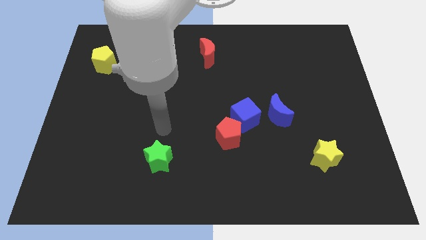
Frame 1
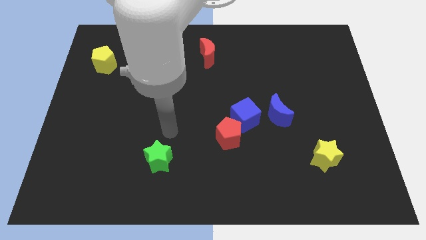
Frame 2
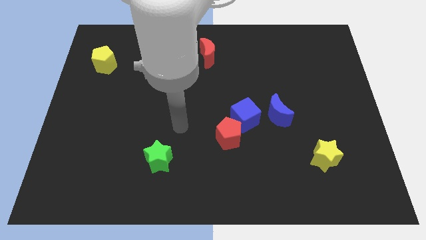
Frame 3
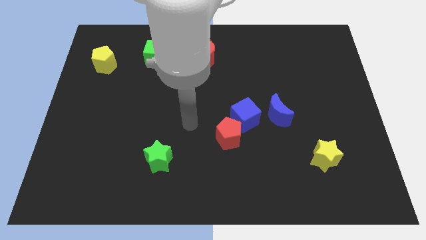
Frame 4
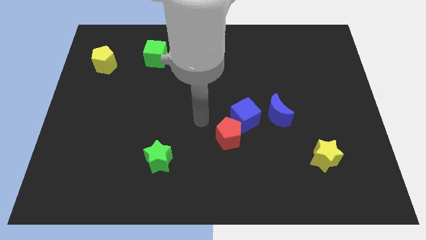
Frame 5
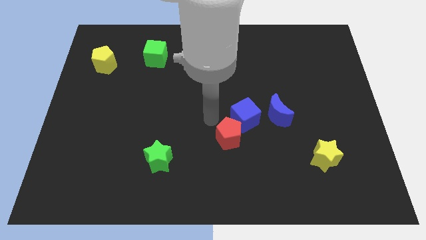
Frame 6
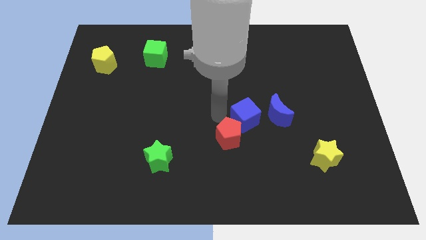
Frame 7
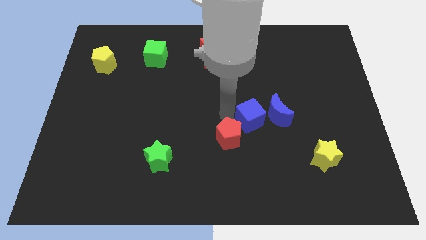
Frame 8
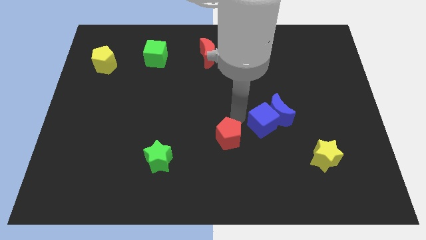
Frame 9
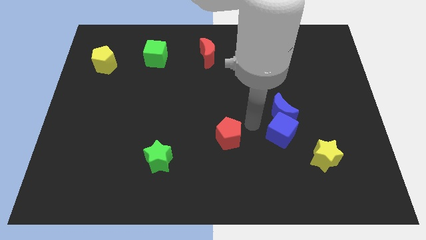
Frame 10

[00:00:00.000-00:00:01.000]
separate the red pentagon from the blue cube

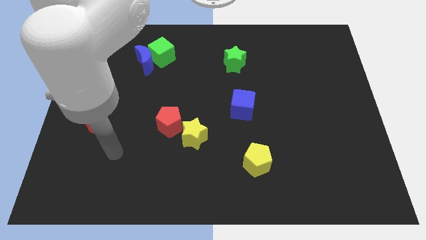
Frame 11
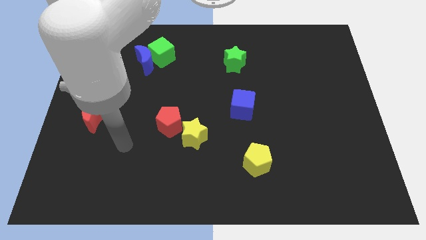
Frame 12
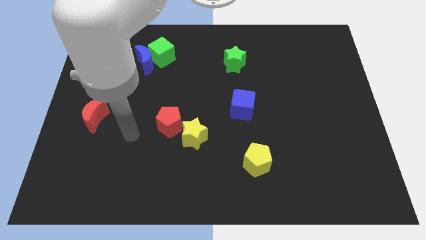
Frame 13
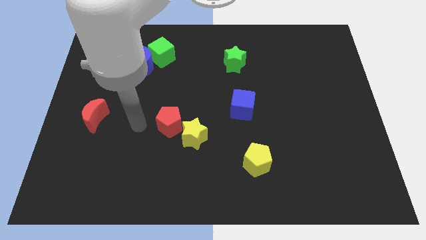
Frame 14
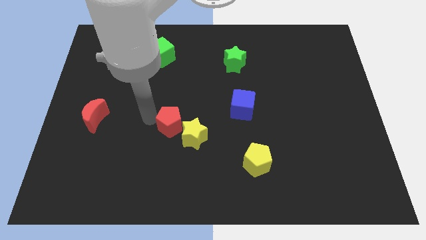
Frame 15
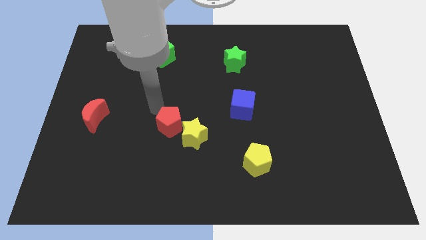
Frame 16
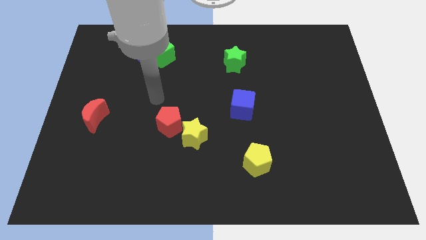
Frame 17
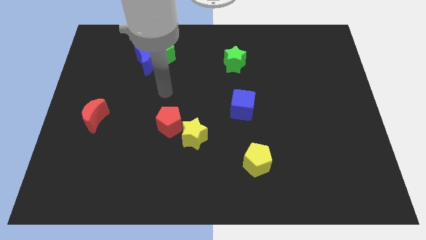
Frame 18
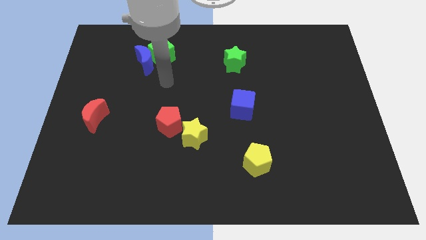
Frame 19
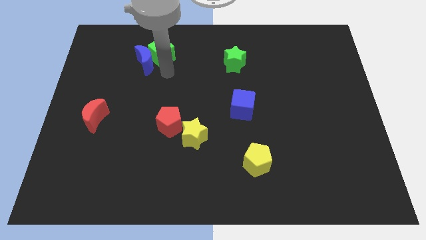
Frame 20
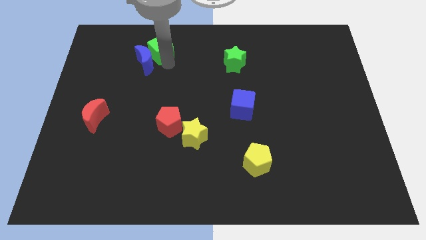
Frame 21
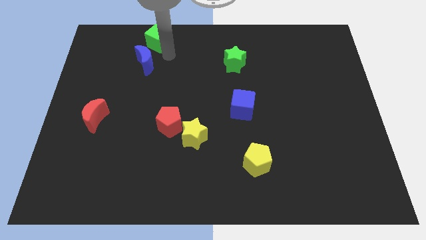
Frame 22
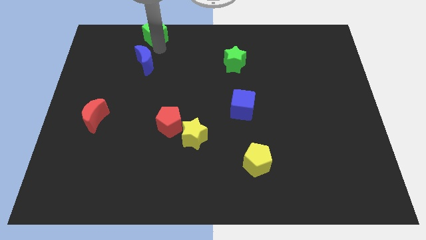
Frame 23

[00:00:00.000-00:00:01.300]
pull the blue moon apart from the green cube

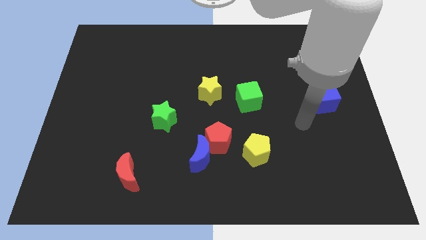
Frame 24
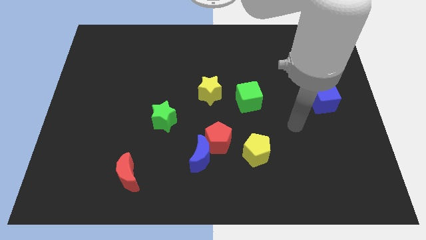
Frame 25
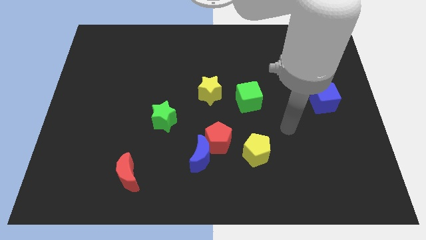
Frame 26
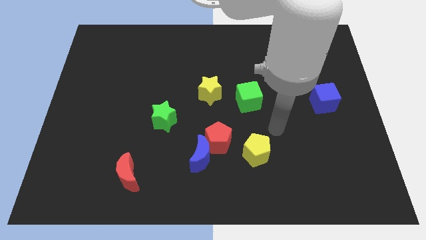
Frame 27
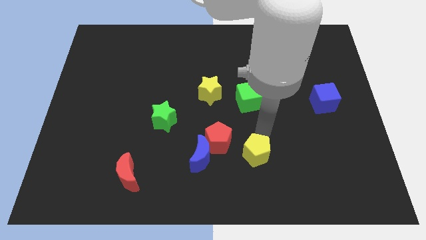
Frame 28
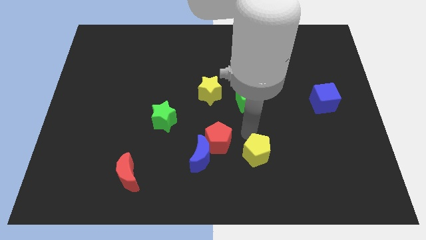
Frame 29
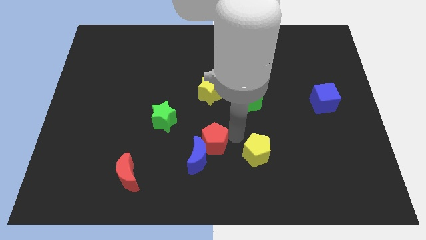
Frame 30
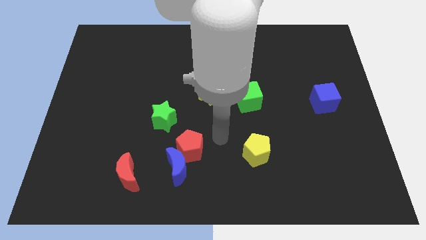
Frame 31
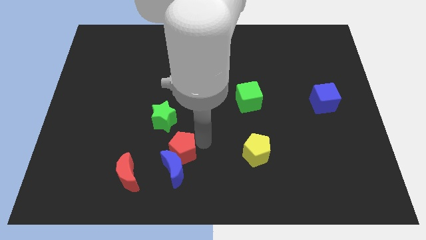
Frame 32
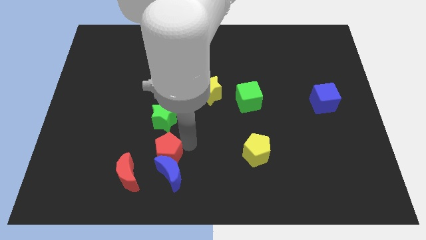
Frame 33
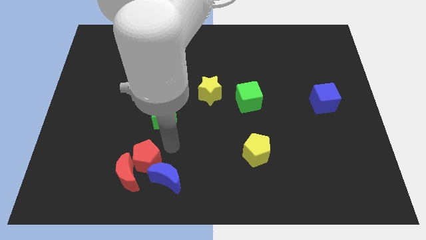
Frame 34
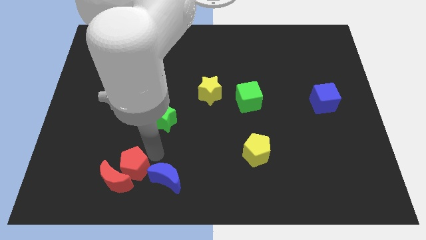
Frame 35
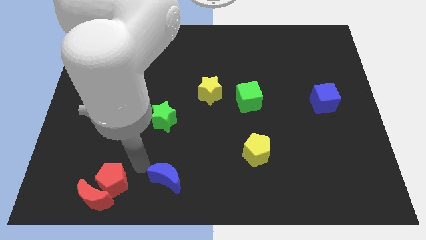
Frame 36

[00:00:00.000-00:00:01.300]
separate the blue moon from the red pentagon

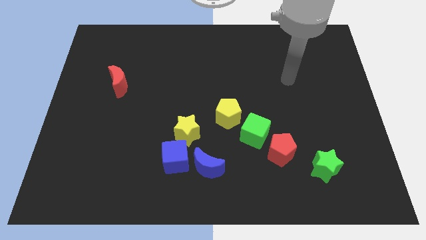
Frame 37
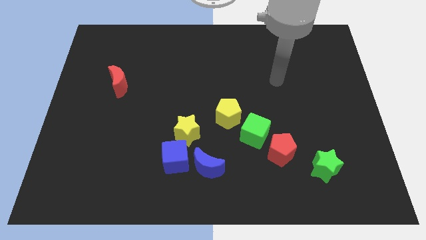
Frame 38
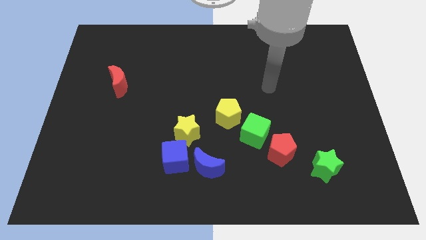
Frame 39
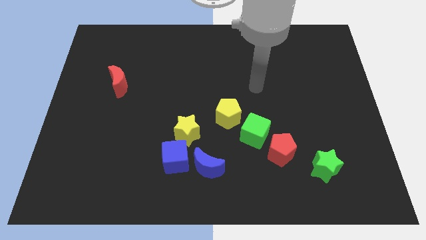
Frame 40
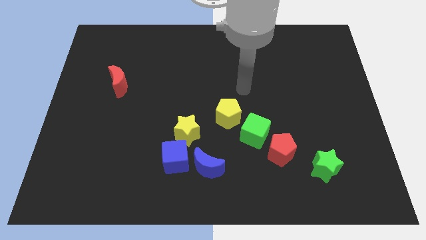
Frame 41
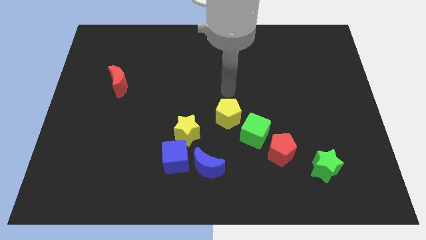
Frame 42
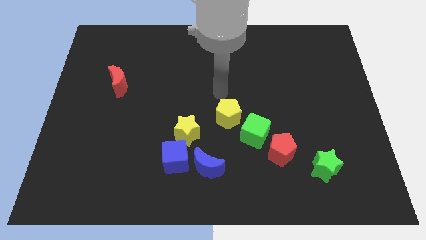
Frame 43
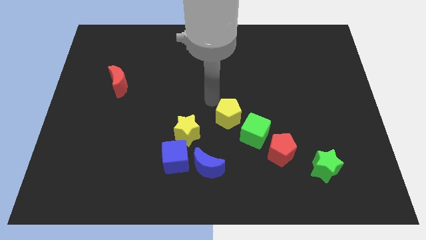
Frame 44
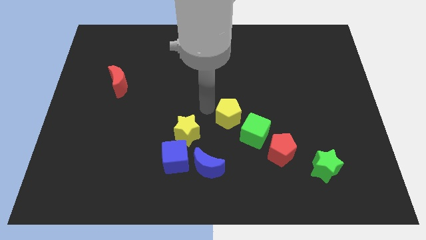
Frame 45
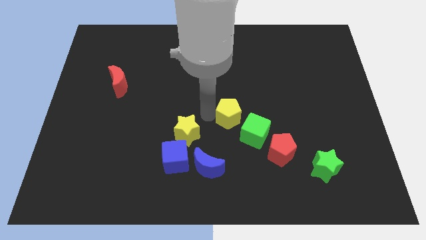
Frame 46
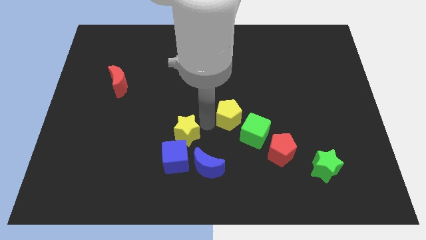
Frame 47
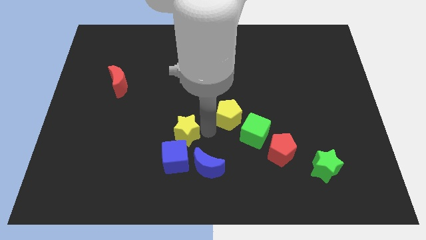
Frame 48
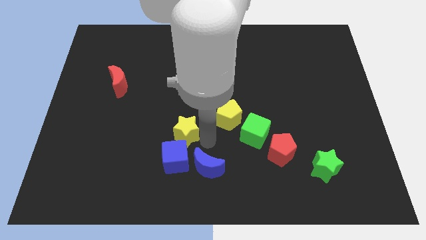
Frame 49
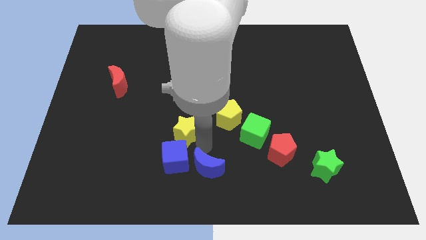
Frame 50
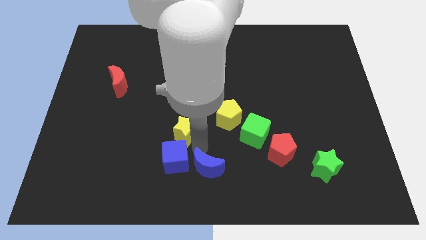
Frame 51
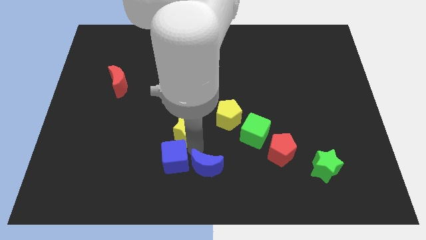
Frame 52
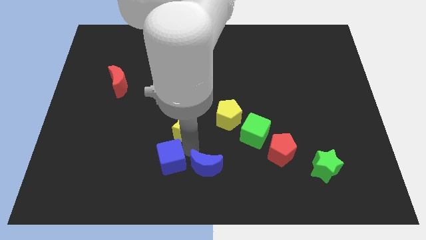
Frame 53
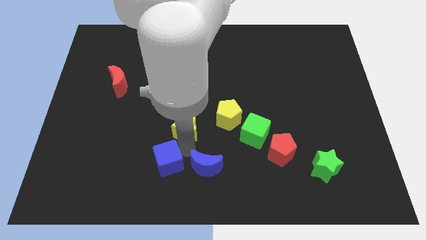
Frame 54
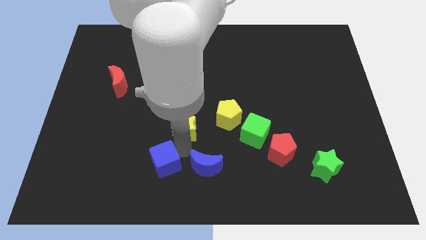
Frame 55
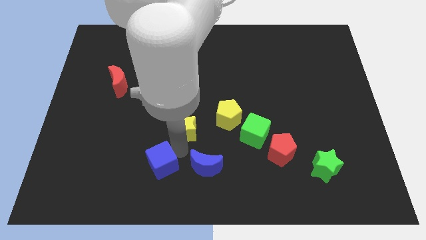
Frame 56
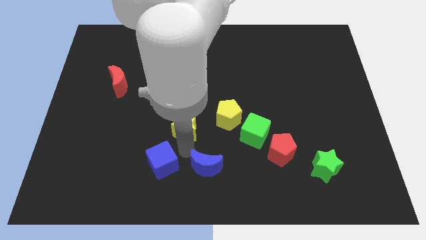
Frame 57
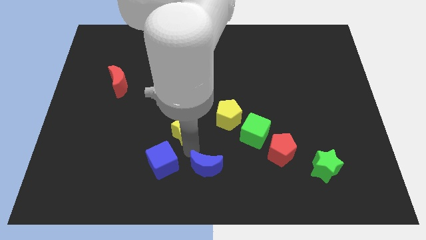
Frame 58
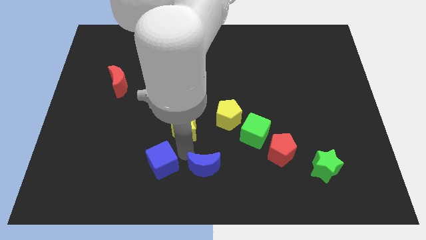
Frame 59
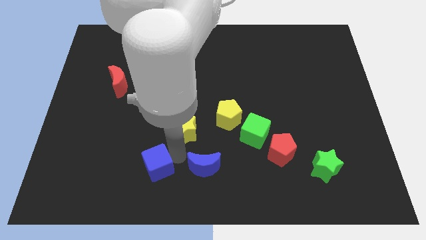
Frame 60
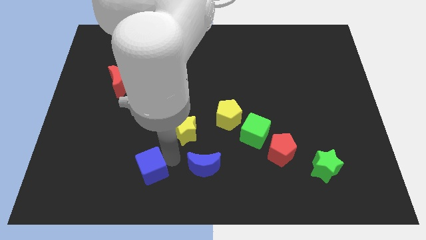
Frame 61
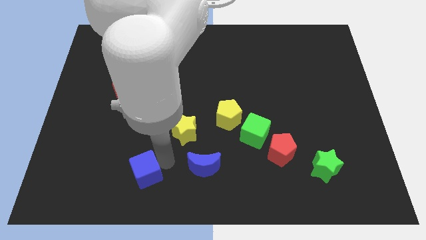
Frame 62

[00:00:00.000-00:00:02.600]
move the blue cube away from the blue moon and yellow star

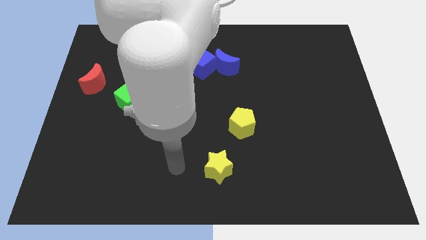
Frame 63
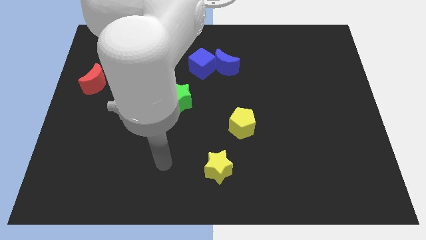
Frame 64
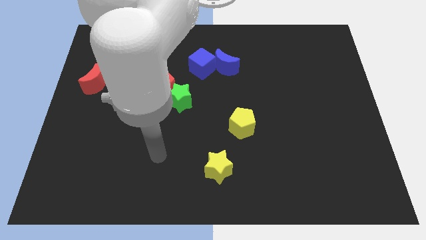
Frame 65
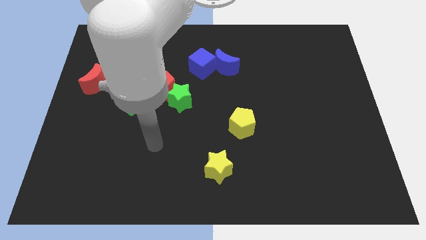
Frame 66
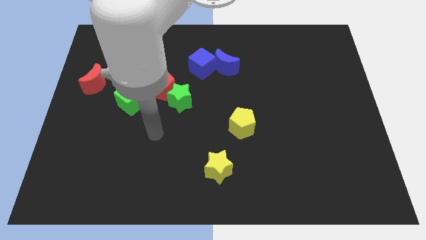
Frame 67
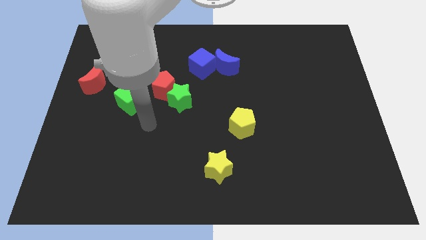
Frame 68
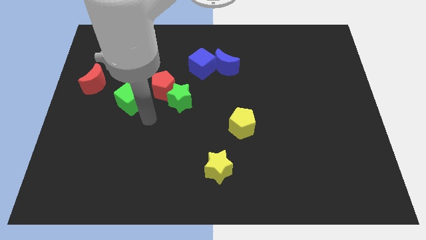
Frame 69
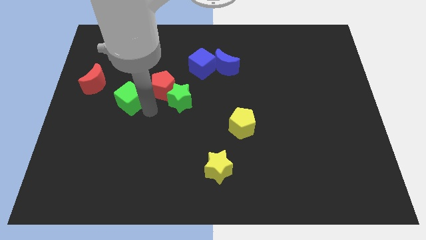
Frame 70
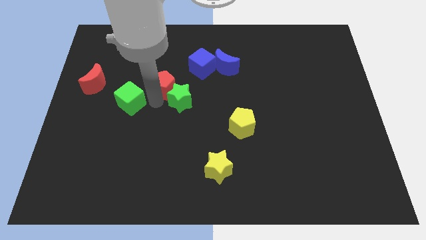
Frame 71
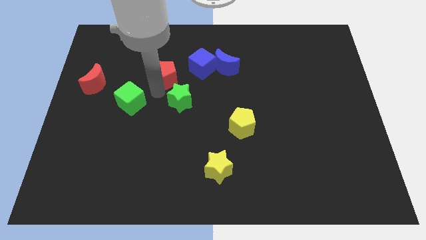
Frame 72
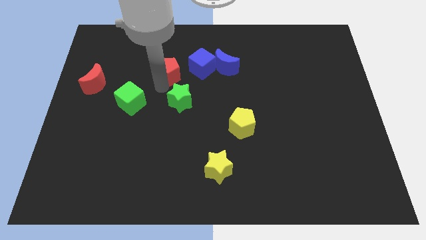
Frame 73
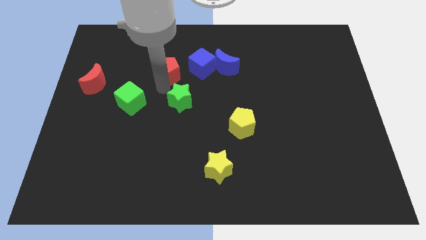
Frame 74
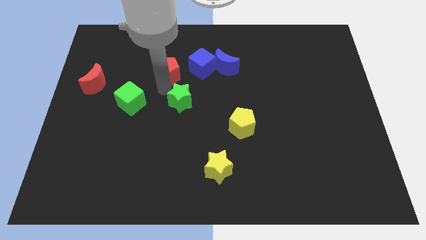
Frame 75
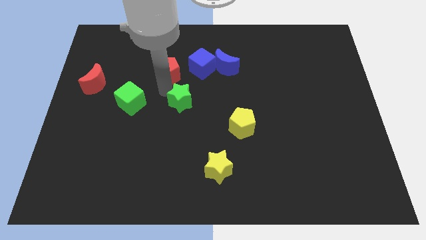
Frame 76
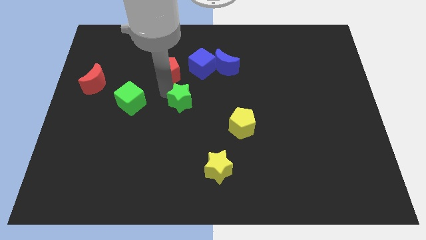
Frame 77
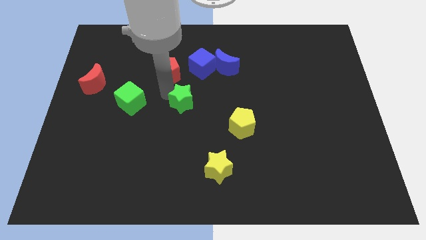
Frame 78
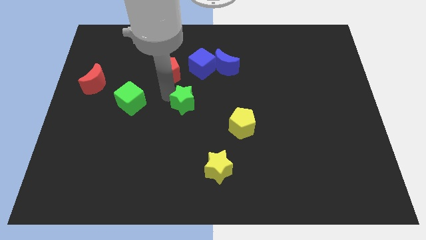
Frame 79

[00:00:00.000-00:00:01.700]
separate the green star from the red pentagon

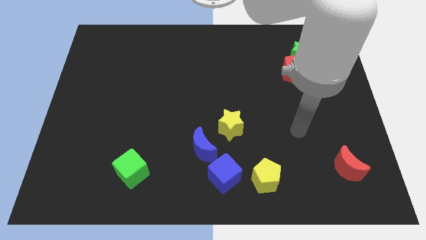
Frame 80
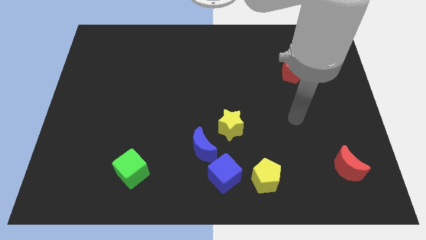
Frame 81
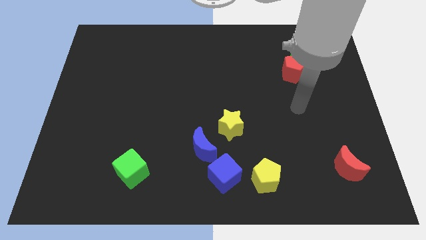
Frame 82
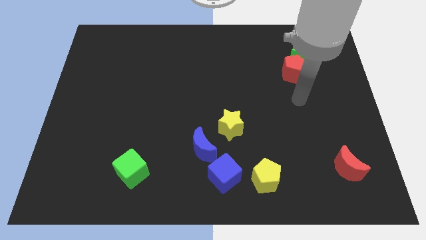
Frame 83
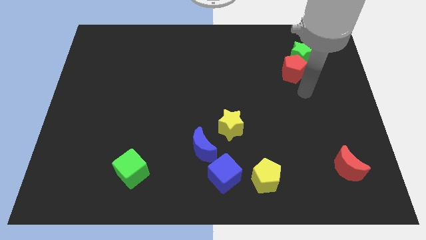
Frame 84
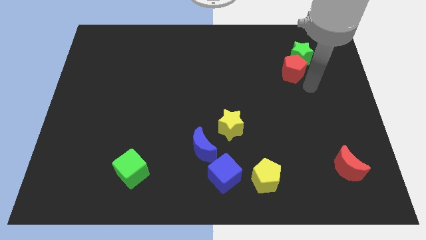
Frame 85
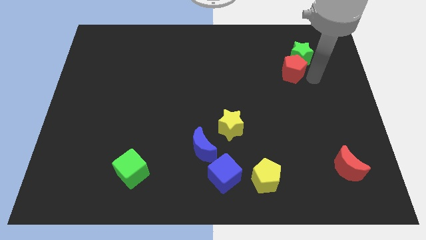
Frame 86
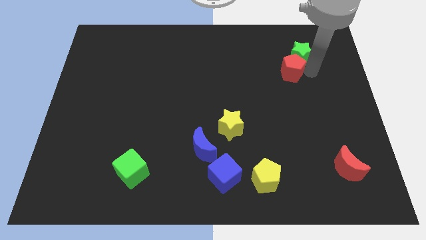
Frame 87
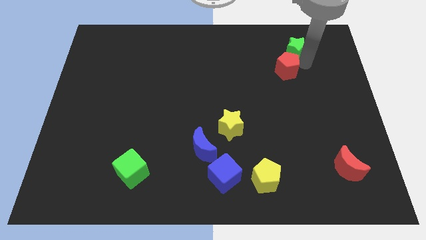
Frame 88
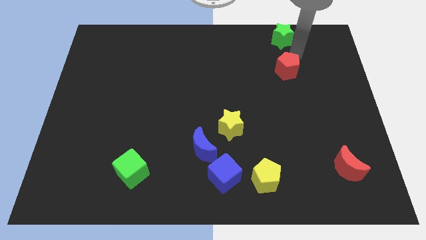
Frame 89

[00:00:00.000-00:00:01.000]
separate the red pentagon from the green star
